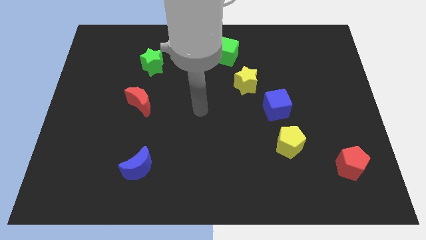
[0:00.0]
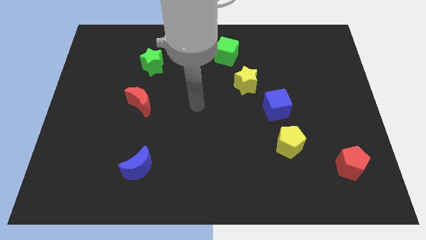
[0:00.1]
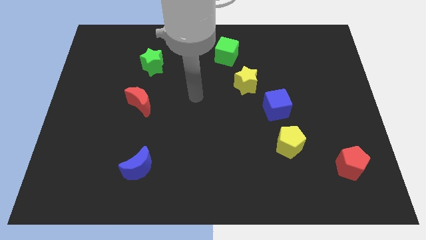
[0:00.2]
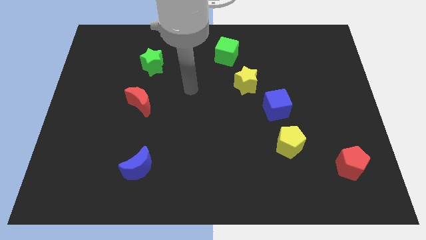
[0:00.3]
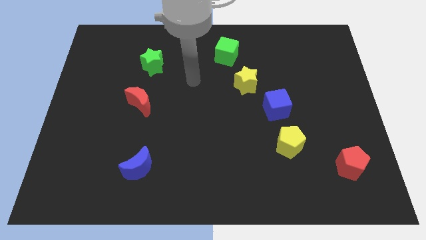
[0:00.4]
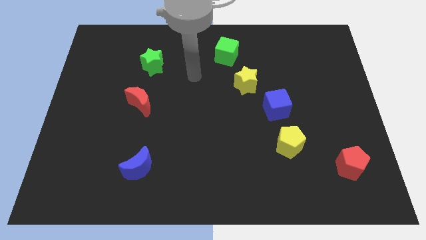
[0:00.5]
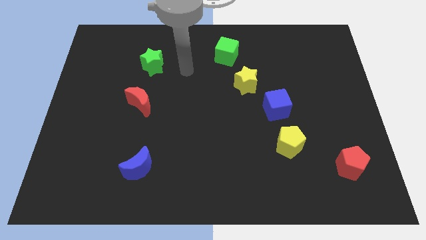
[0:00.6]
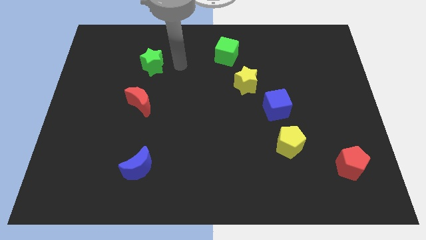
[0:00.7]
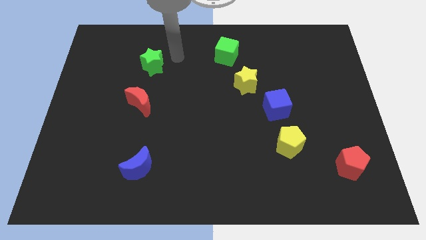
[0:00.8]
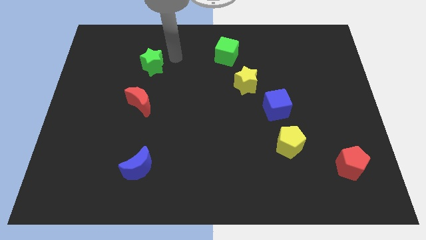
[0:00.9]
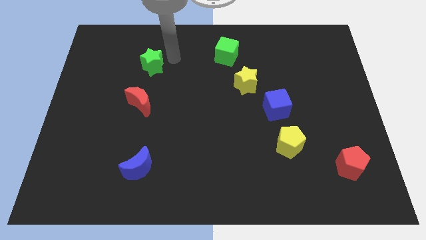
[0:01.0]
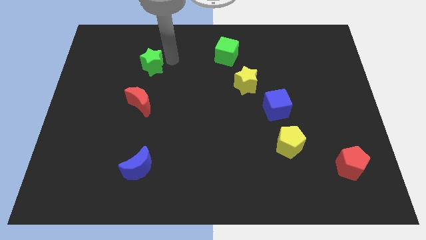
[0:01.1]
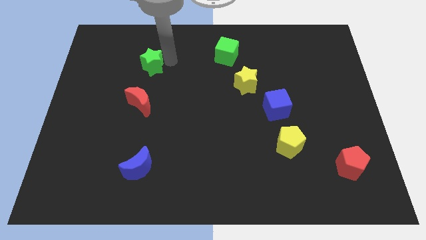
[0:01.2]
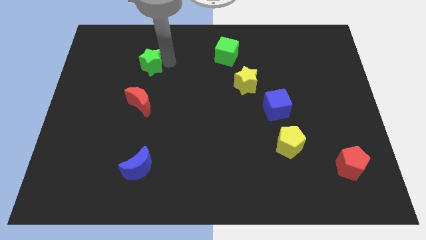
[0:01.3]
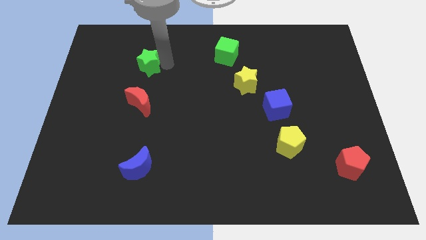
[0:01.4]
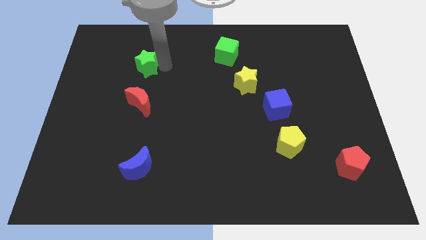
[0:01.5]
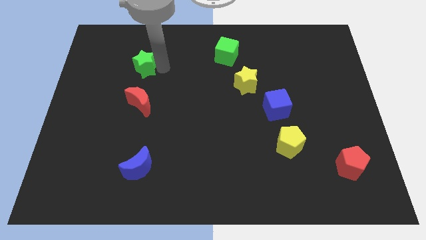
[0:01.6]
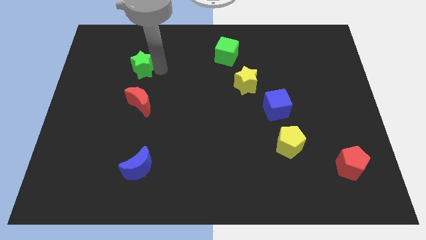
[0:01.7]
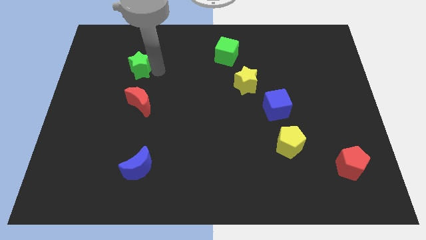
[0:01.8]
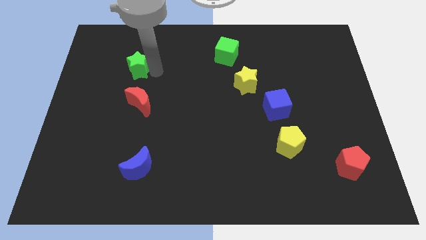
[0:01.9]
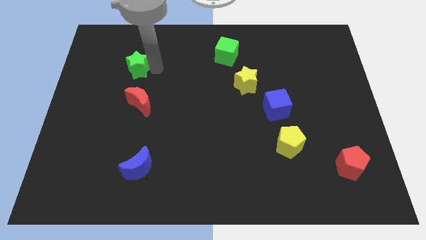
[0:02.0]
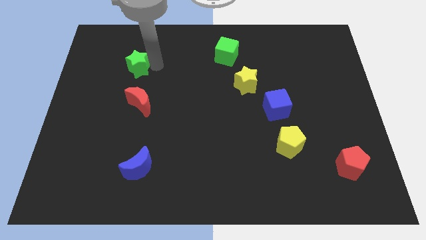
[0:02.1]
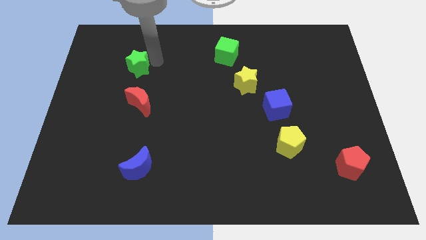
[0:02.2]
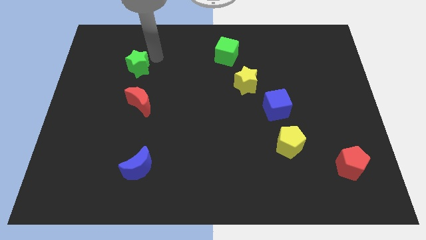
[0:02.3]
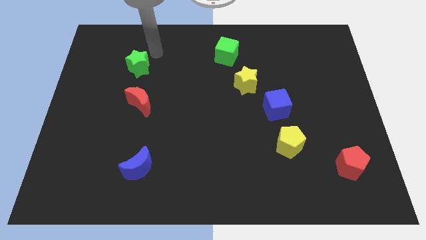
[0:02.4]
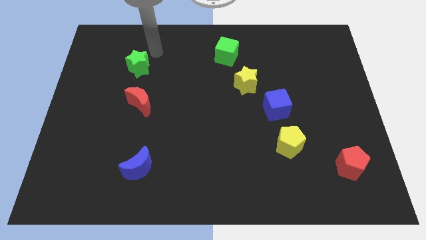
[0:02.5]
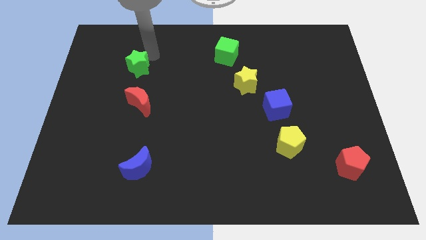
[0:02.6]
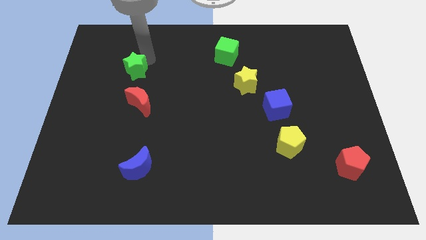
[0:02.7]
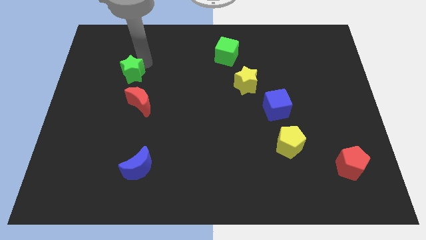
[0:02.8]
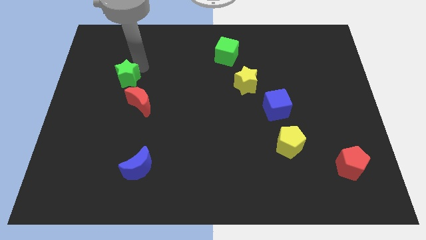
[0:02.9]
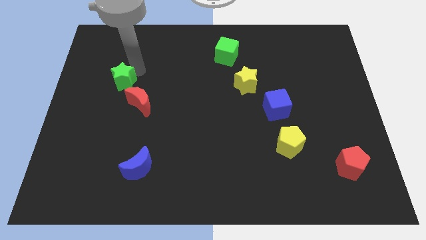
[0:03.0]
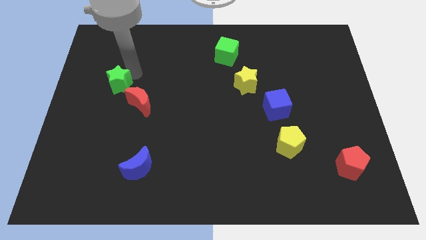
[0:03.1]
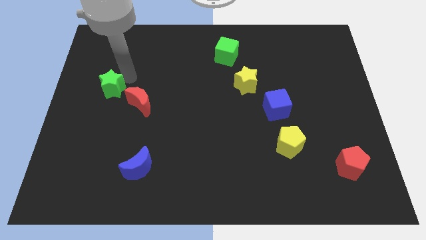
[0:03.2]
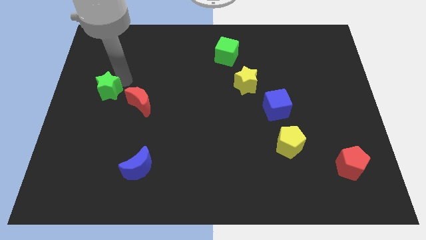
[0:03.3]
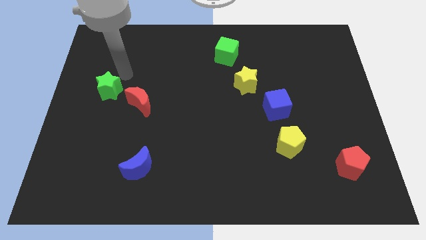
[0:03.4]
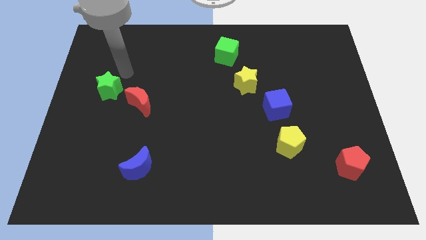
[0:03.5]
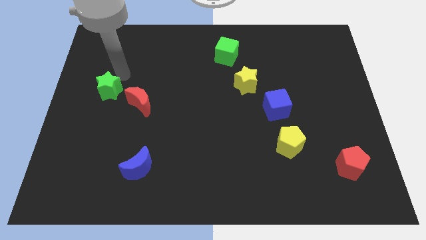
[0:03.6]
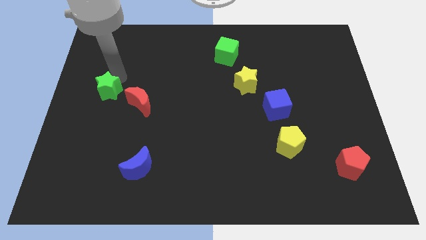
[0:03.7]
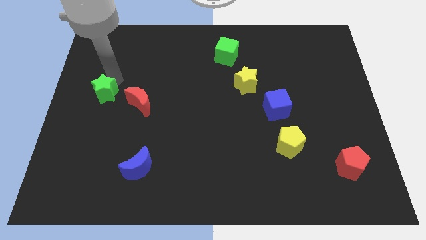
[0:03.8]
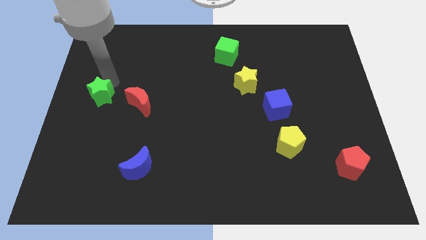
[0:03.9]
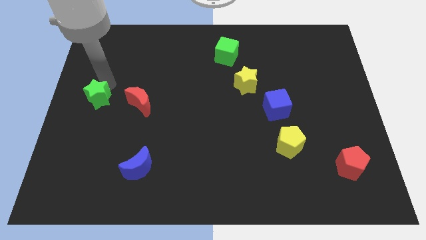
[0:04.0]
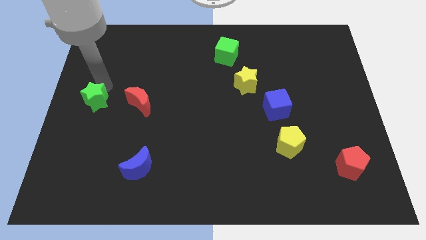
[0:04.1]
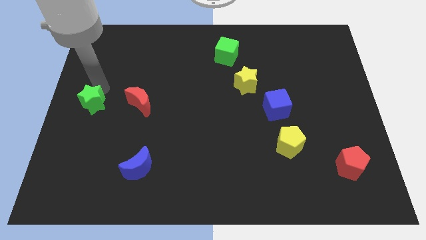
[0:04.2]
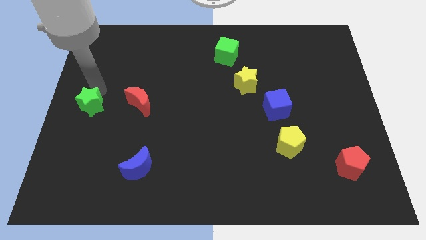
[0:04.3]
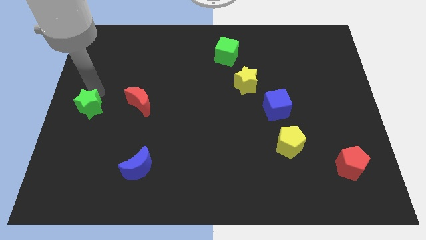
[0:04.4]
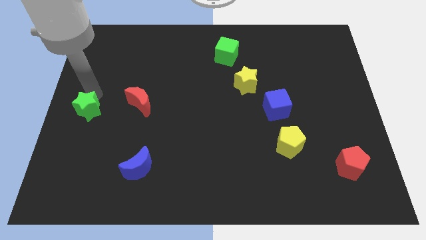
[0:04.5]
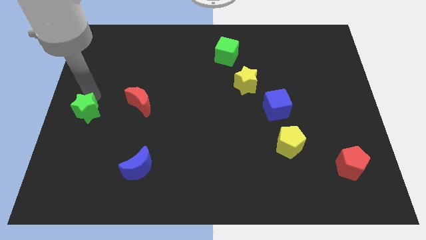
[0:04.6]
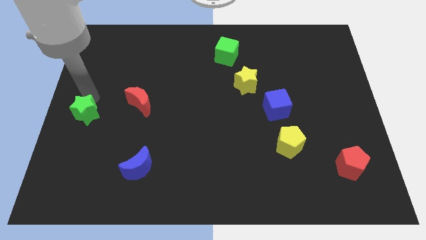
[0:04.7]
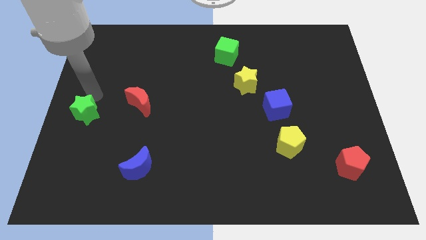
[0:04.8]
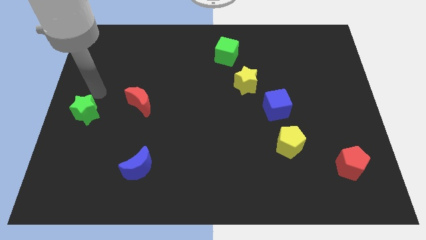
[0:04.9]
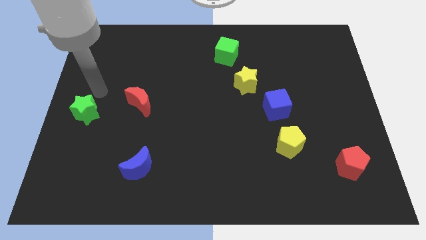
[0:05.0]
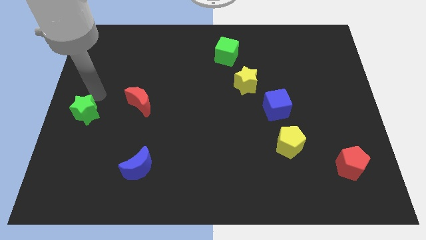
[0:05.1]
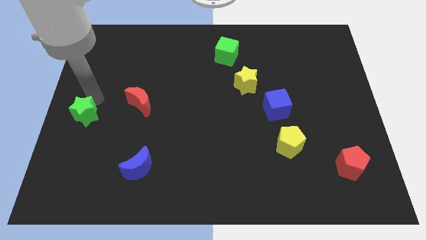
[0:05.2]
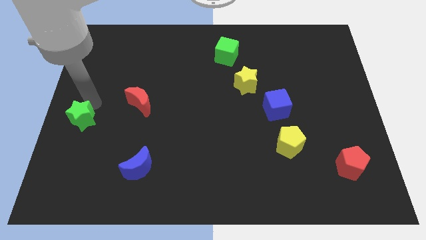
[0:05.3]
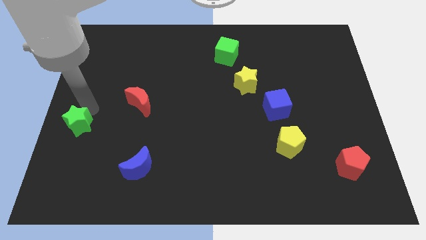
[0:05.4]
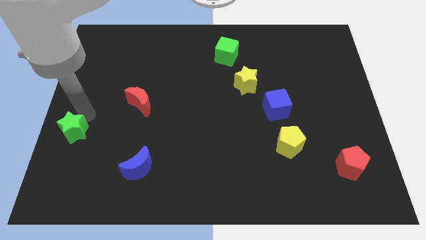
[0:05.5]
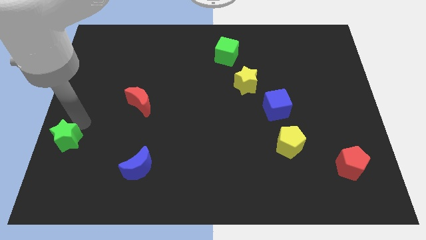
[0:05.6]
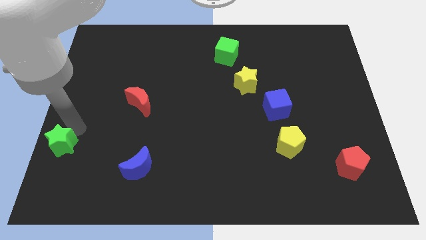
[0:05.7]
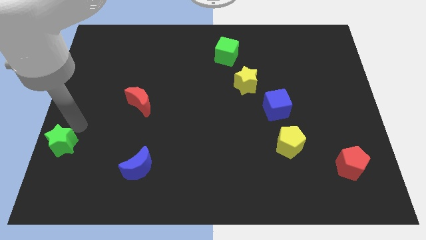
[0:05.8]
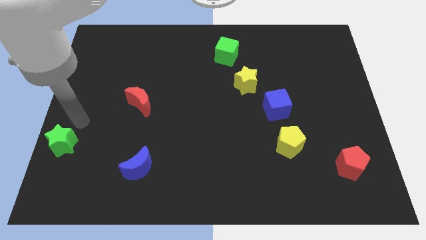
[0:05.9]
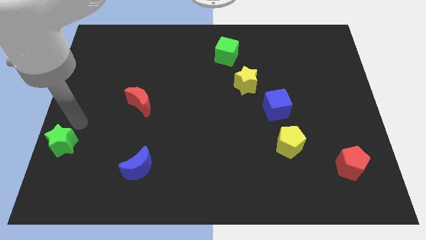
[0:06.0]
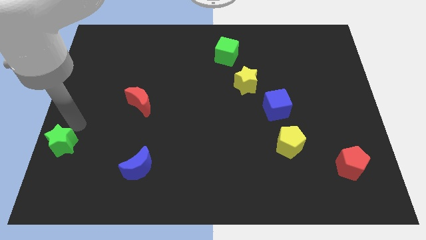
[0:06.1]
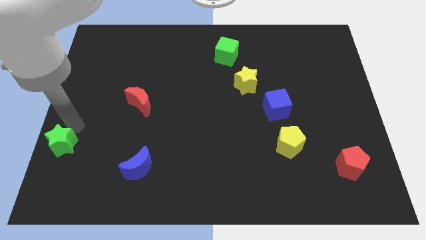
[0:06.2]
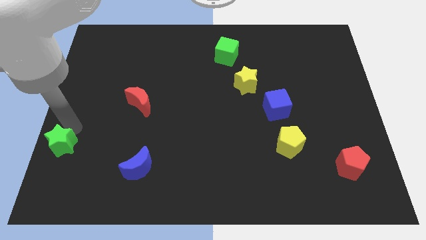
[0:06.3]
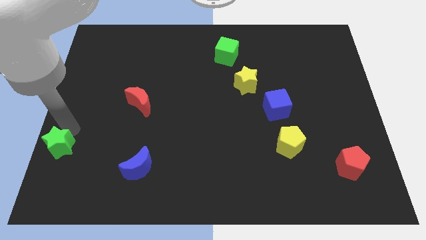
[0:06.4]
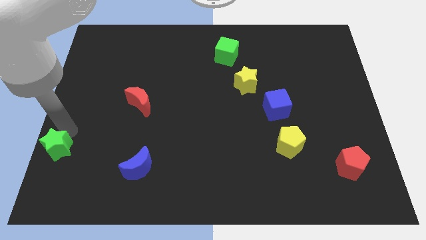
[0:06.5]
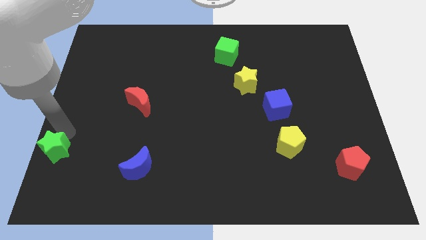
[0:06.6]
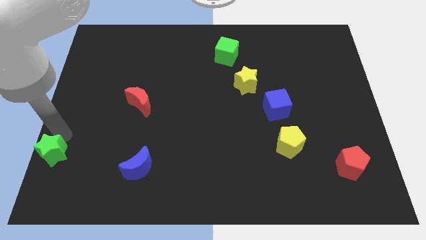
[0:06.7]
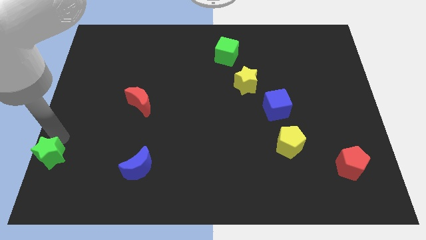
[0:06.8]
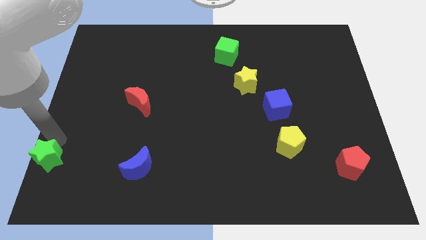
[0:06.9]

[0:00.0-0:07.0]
push the green star to the bottom left of the board
